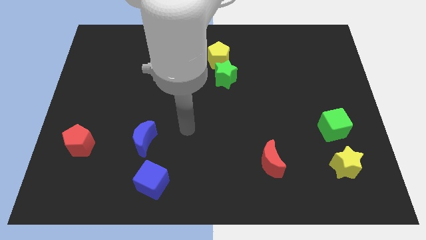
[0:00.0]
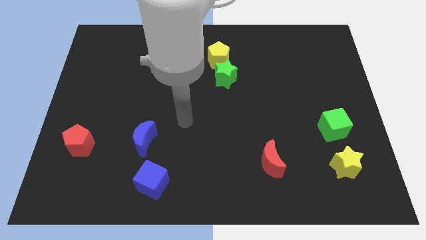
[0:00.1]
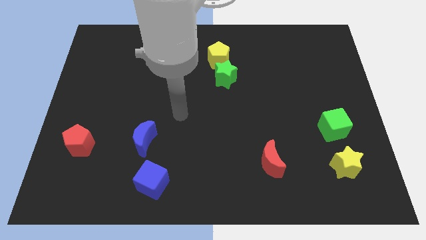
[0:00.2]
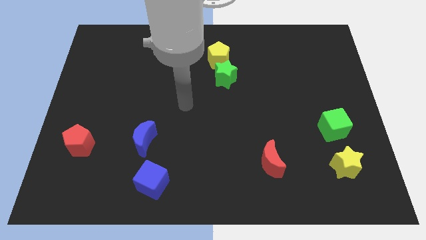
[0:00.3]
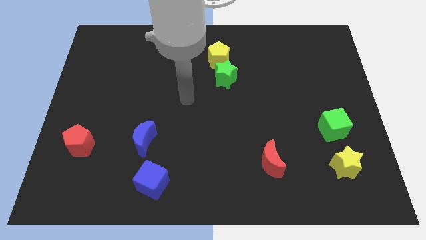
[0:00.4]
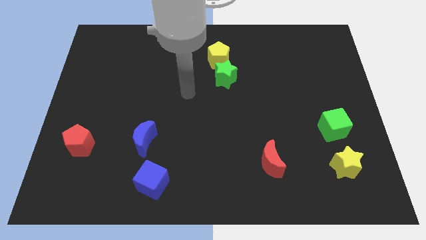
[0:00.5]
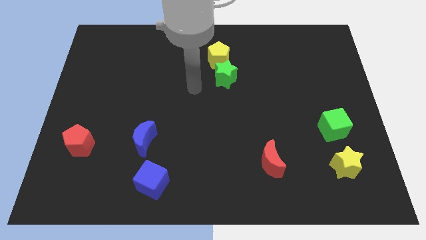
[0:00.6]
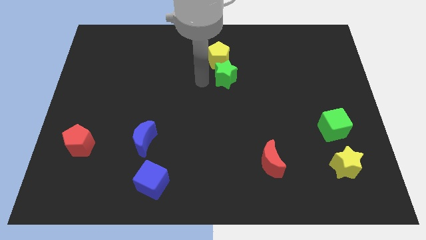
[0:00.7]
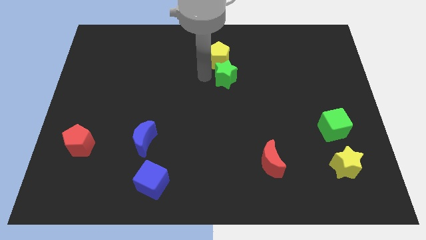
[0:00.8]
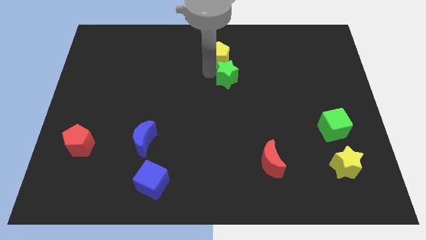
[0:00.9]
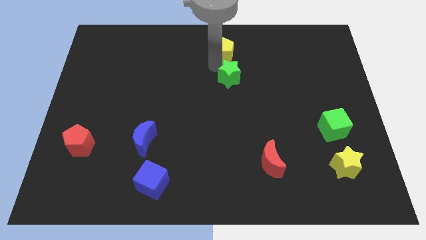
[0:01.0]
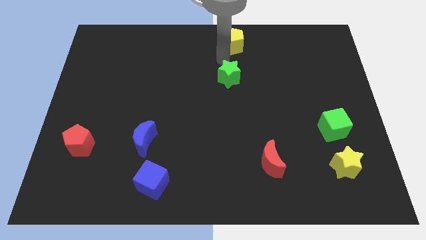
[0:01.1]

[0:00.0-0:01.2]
separate the green star from the yellow pentagon

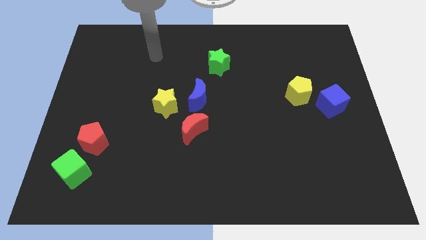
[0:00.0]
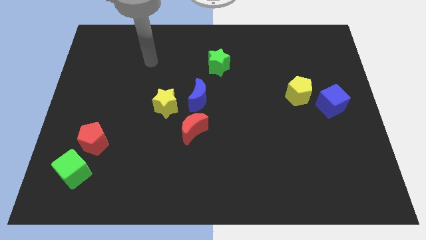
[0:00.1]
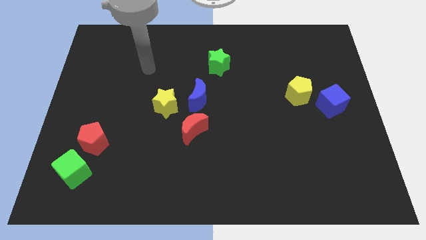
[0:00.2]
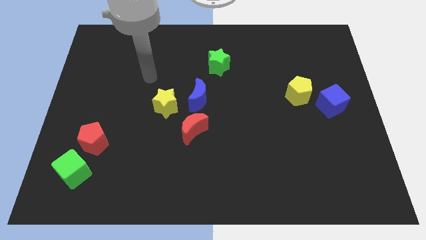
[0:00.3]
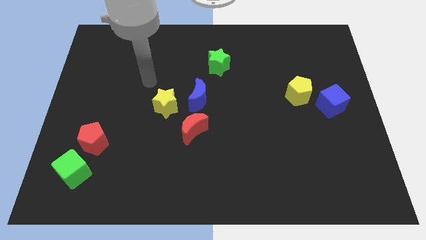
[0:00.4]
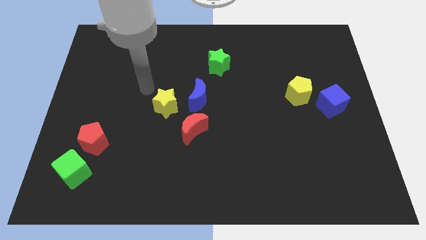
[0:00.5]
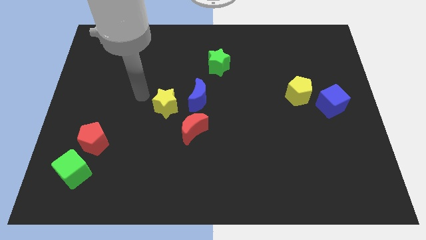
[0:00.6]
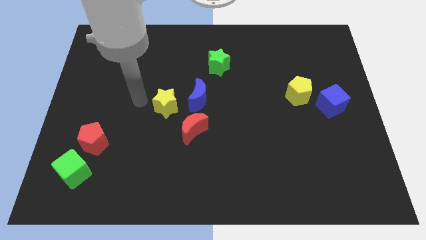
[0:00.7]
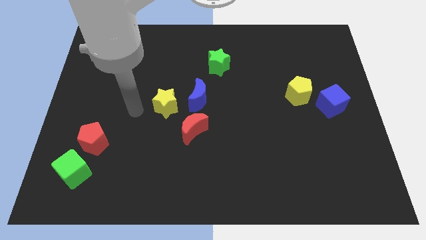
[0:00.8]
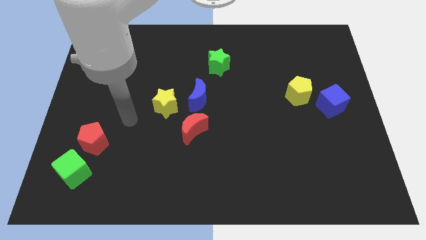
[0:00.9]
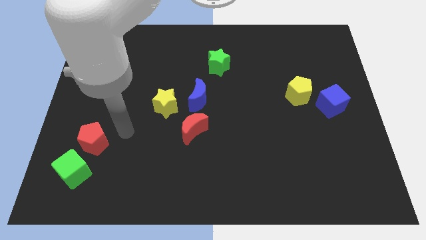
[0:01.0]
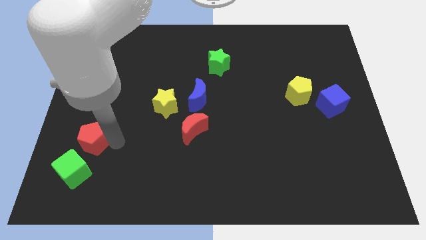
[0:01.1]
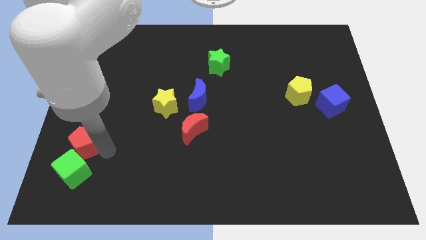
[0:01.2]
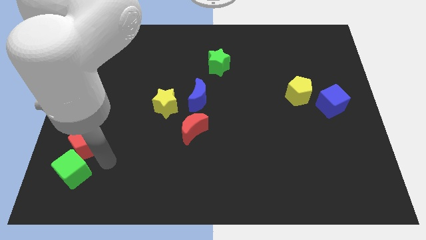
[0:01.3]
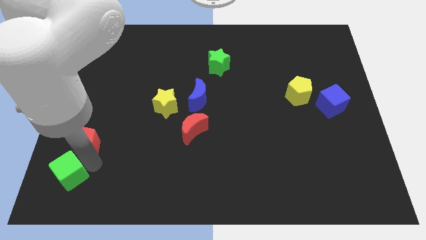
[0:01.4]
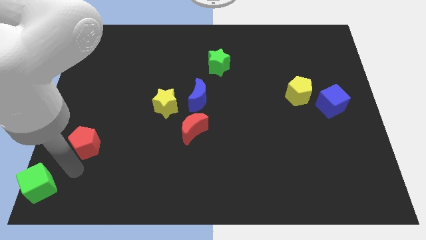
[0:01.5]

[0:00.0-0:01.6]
pull the red pentagon apart from the green cube

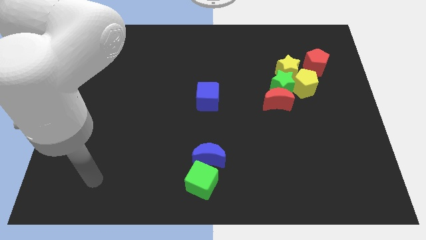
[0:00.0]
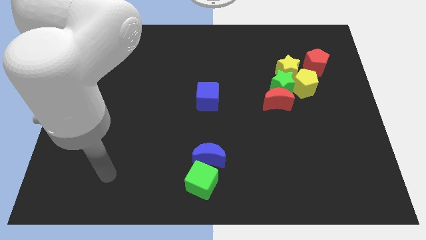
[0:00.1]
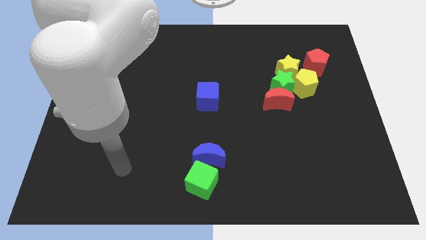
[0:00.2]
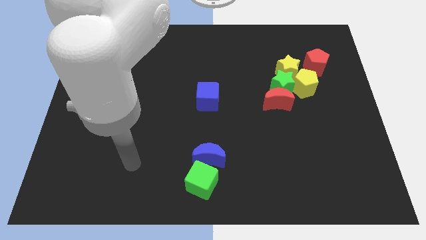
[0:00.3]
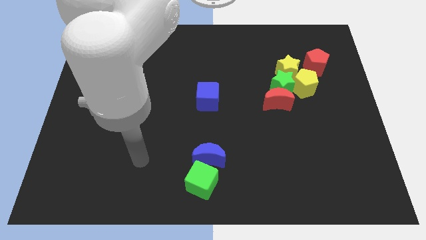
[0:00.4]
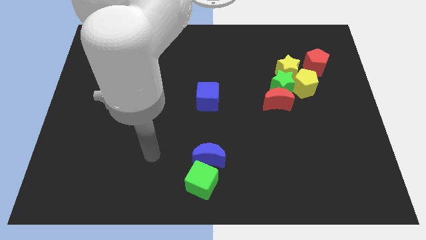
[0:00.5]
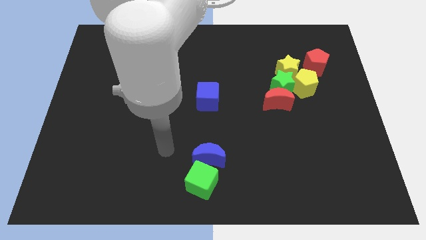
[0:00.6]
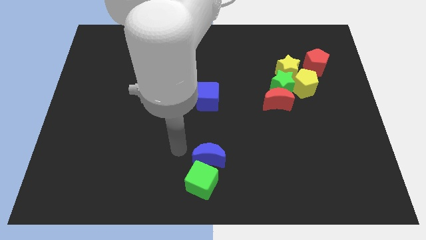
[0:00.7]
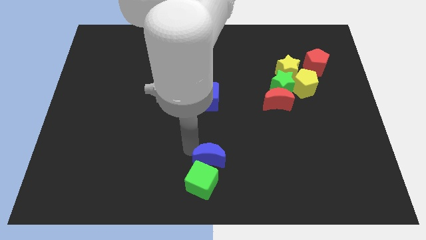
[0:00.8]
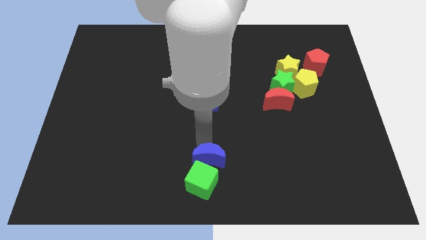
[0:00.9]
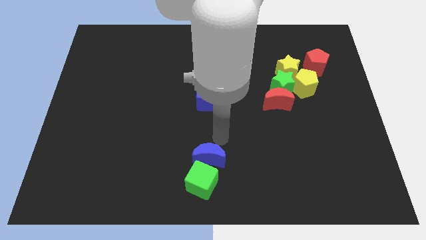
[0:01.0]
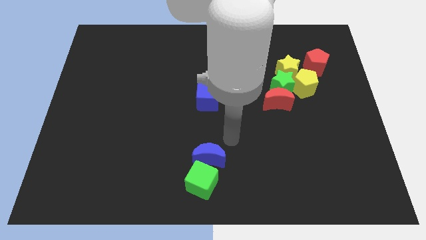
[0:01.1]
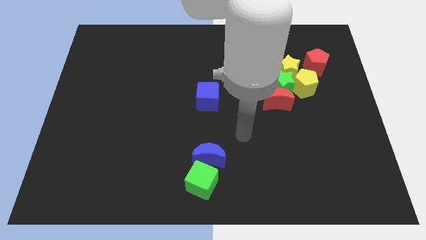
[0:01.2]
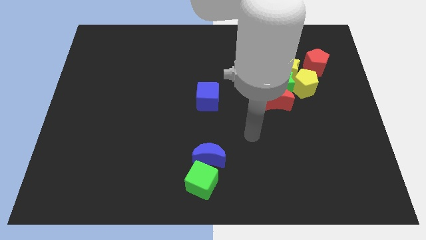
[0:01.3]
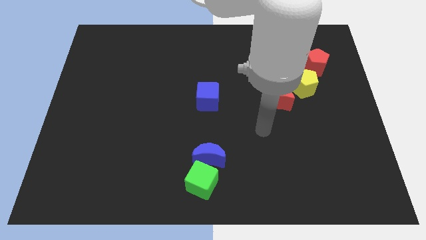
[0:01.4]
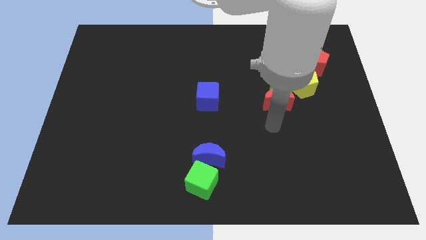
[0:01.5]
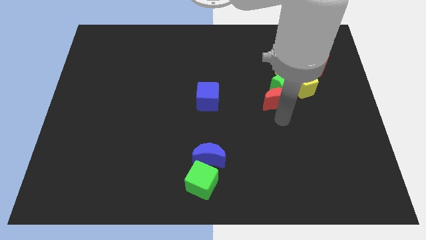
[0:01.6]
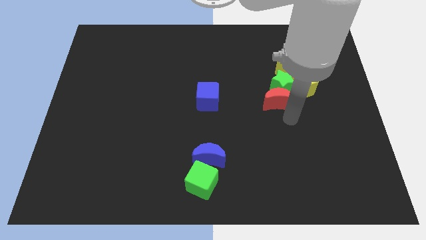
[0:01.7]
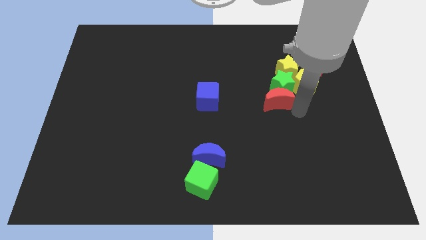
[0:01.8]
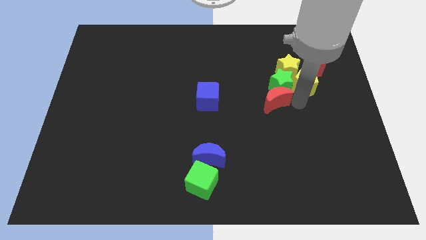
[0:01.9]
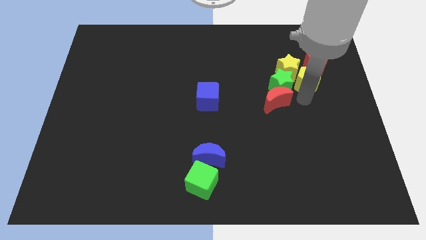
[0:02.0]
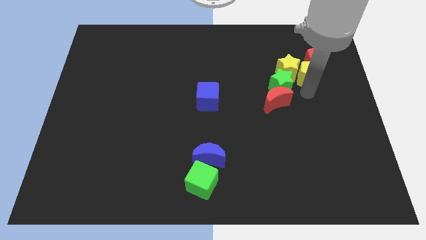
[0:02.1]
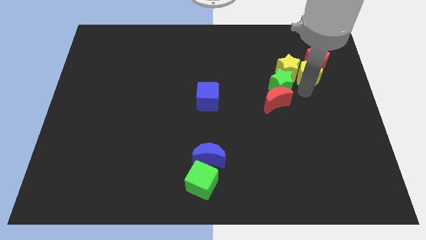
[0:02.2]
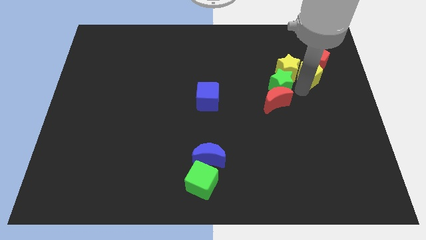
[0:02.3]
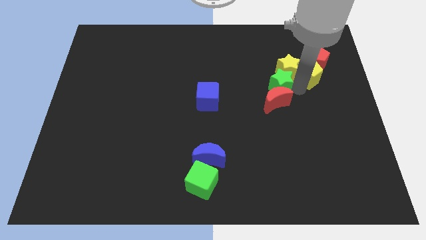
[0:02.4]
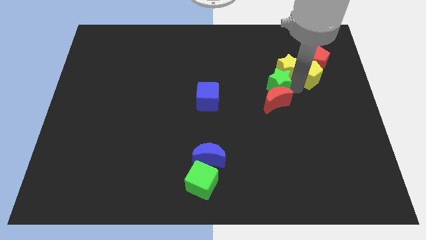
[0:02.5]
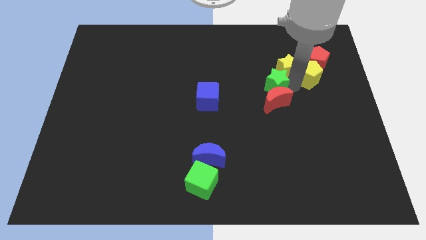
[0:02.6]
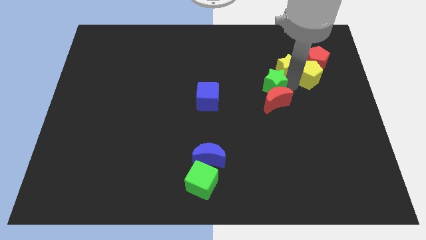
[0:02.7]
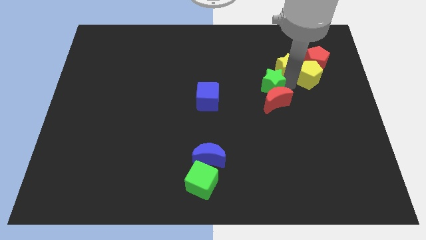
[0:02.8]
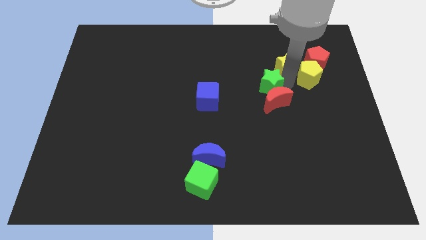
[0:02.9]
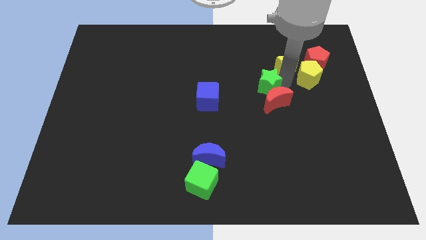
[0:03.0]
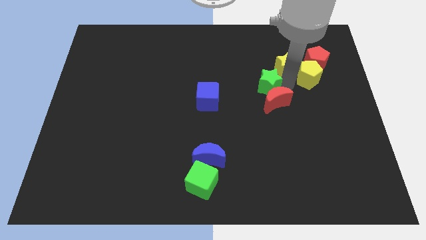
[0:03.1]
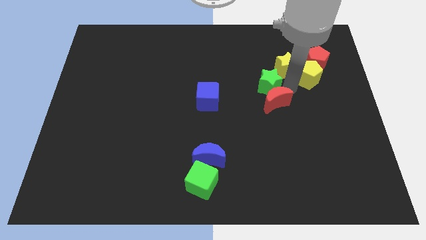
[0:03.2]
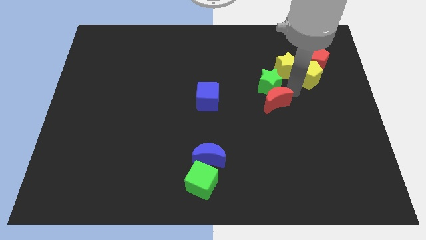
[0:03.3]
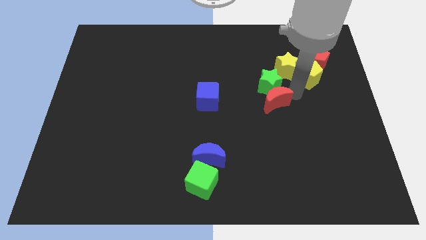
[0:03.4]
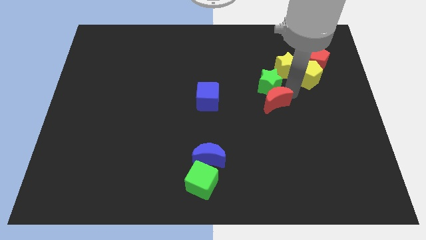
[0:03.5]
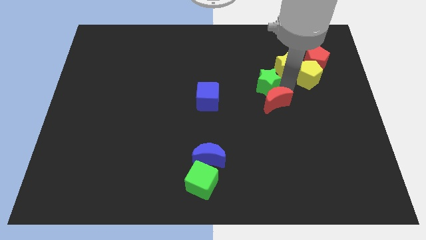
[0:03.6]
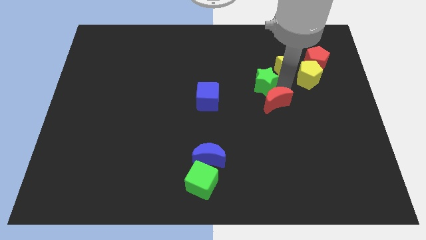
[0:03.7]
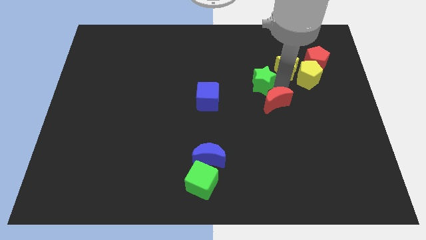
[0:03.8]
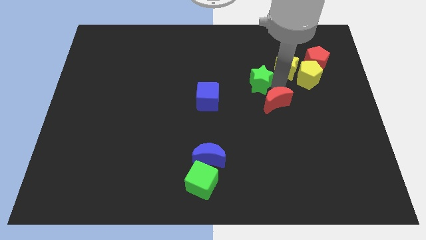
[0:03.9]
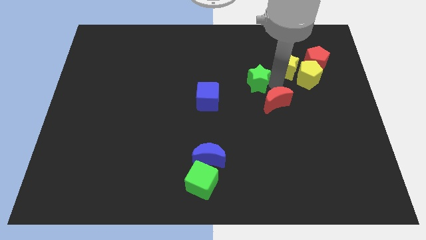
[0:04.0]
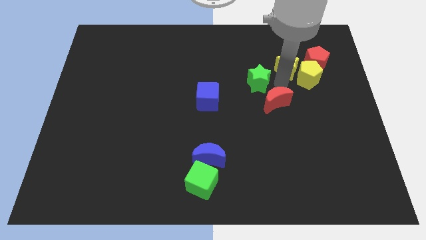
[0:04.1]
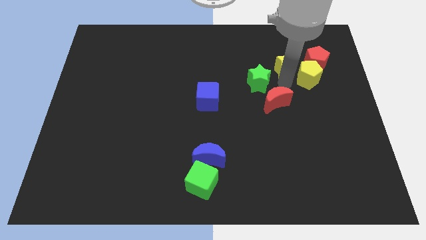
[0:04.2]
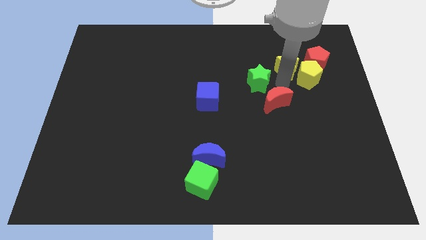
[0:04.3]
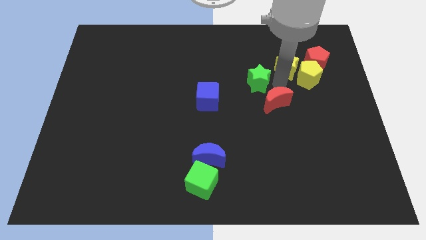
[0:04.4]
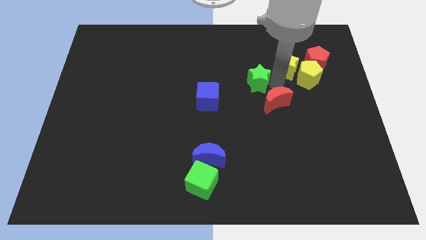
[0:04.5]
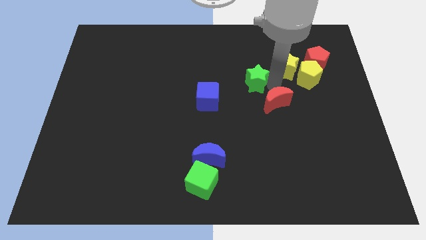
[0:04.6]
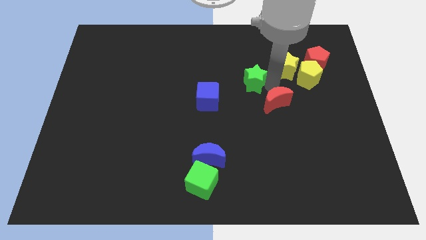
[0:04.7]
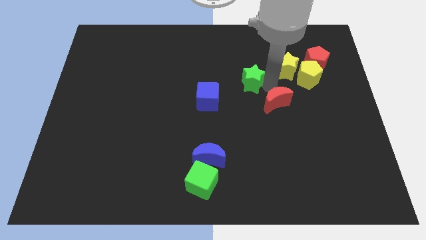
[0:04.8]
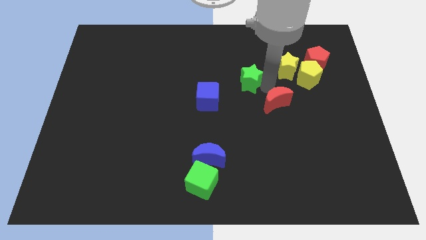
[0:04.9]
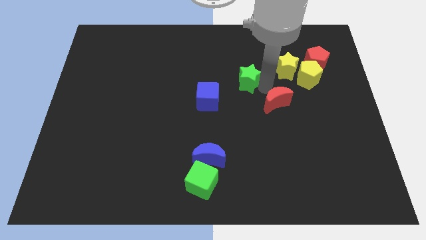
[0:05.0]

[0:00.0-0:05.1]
separate the green star from the red moon, yellow star, and yellow pentagon

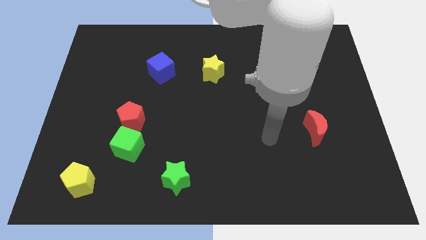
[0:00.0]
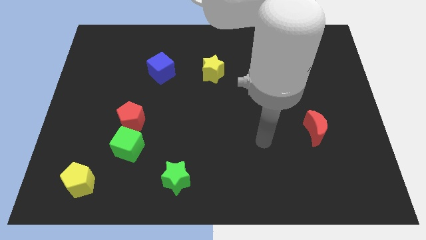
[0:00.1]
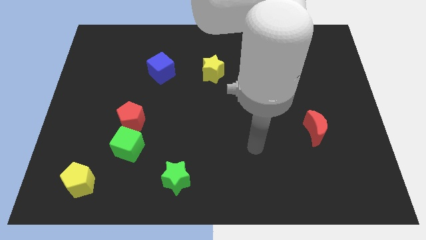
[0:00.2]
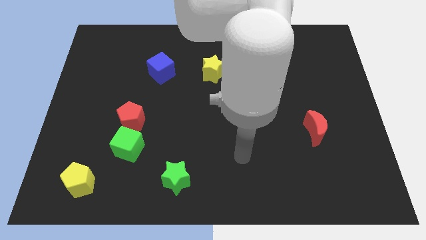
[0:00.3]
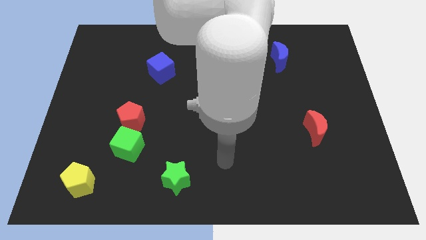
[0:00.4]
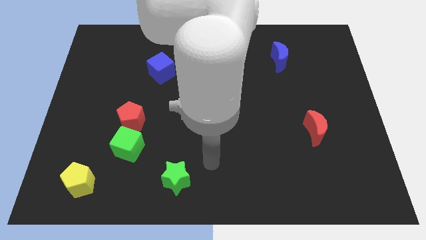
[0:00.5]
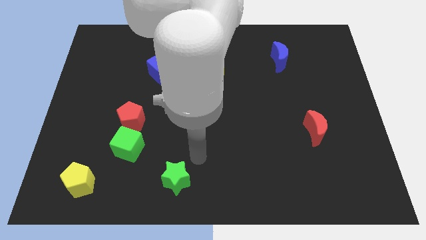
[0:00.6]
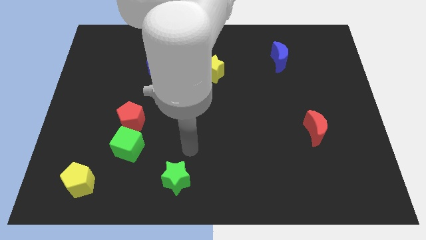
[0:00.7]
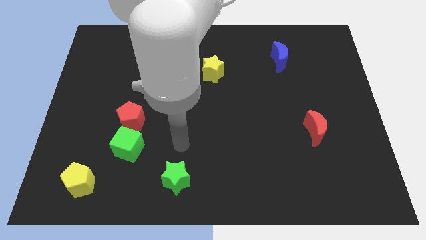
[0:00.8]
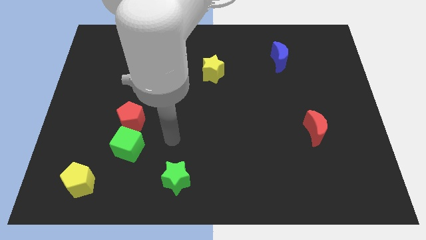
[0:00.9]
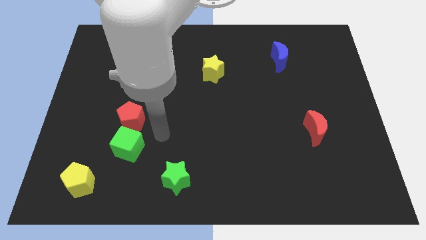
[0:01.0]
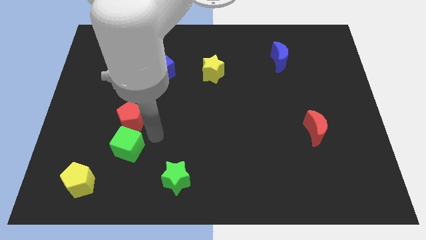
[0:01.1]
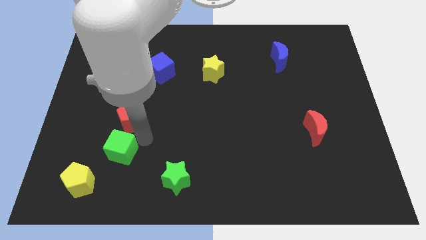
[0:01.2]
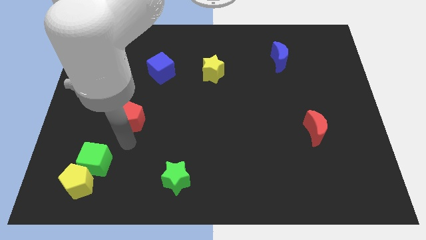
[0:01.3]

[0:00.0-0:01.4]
separate the red pentagon from the green cube

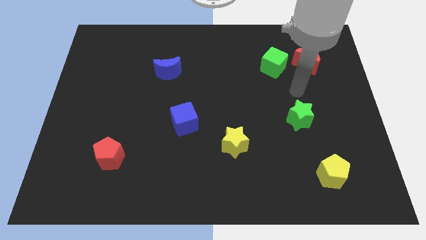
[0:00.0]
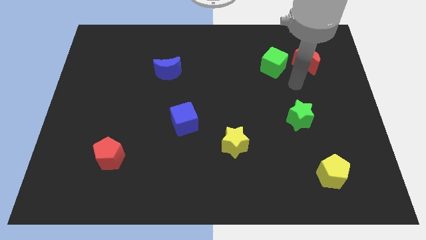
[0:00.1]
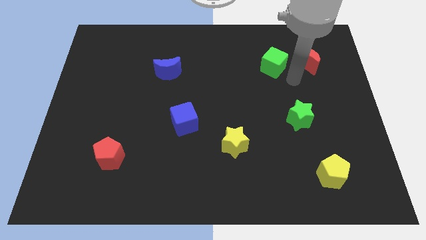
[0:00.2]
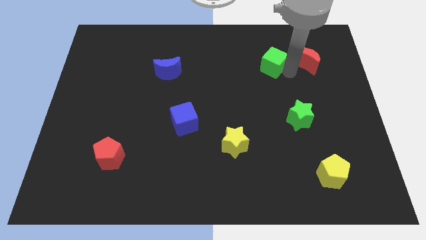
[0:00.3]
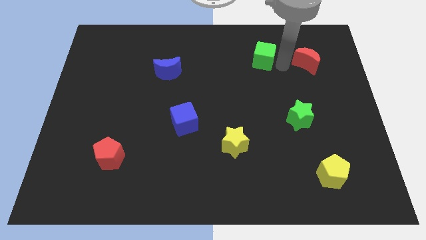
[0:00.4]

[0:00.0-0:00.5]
separate the red moon from the green cube
